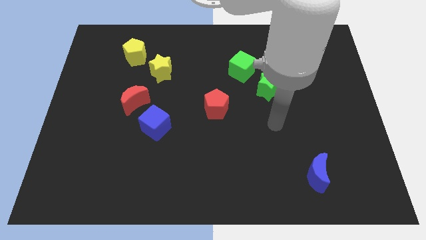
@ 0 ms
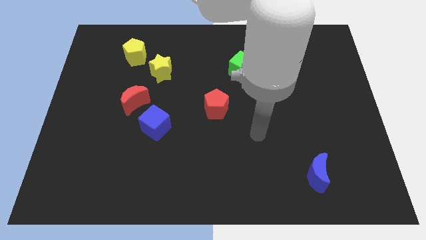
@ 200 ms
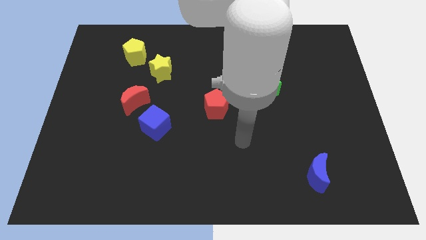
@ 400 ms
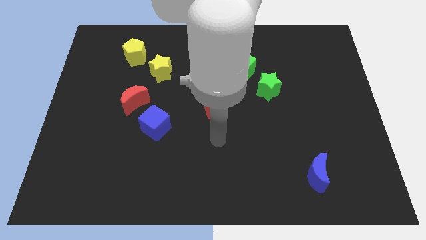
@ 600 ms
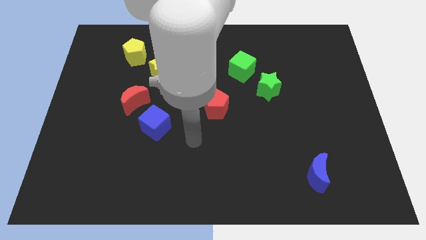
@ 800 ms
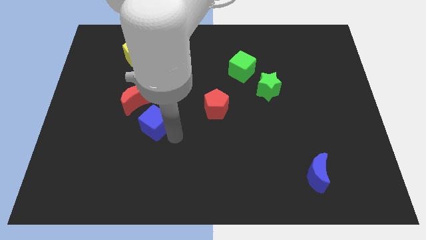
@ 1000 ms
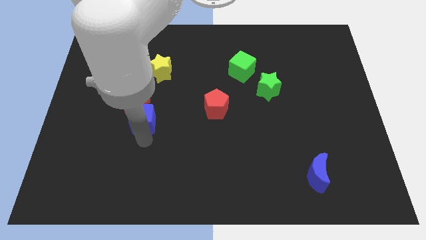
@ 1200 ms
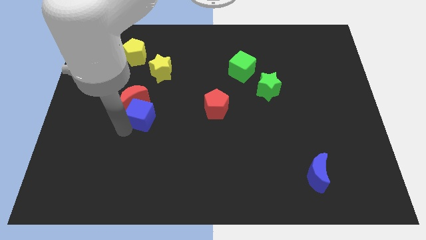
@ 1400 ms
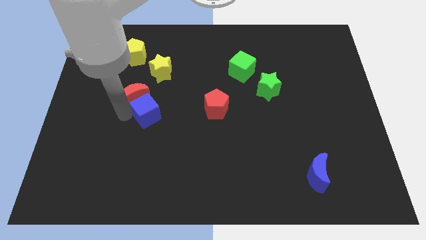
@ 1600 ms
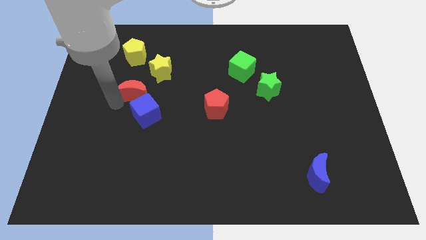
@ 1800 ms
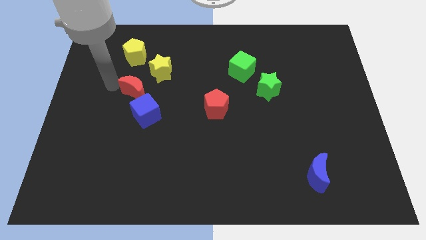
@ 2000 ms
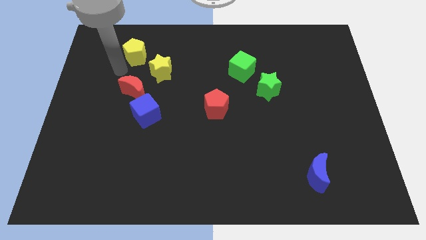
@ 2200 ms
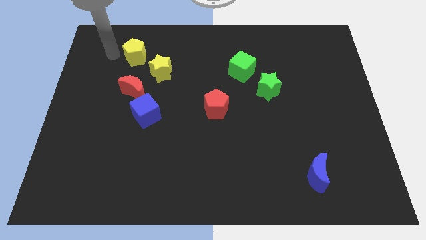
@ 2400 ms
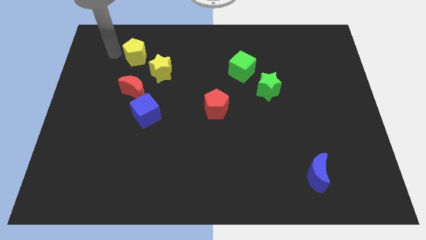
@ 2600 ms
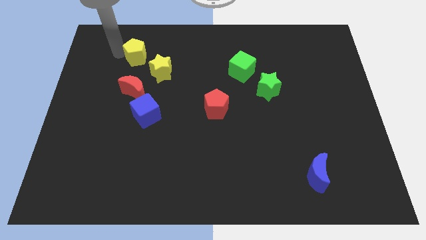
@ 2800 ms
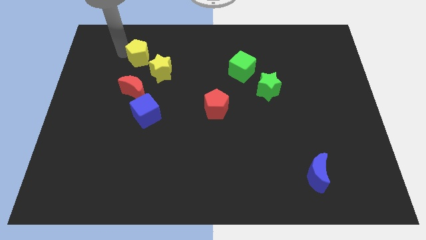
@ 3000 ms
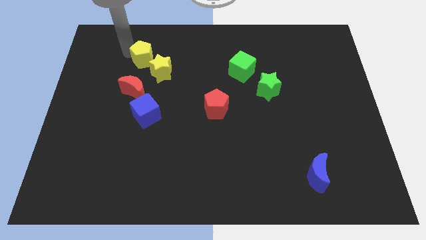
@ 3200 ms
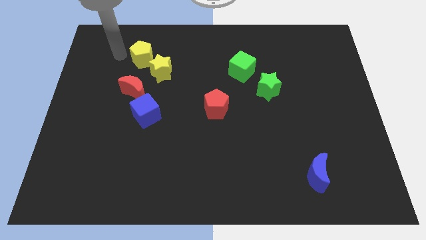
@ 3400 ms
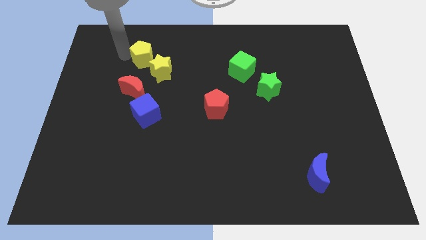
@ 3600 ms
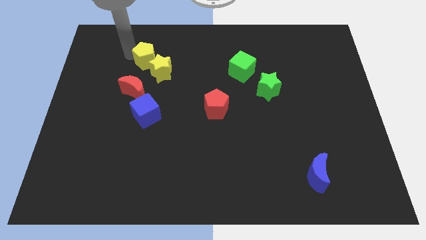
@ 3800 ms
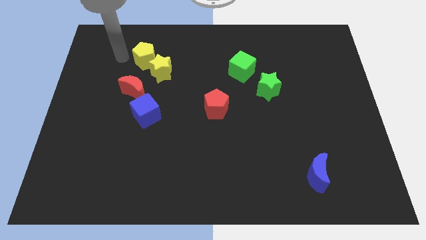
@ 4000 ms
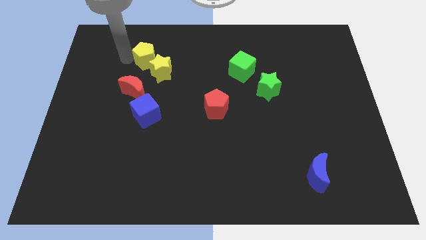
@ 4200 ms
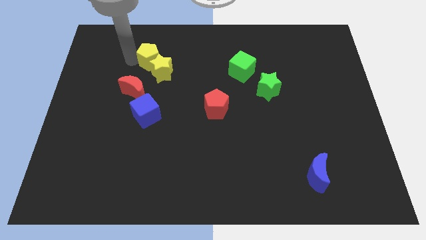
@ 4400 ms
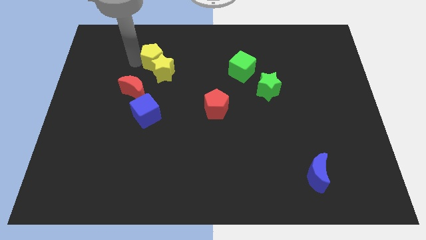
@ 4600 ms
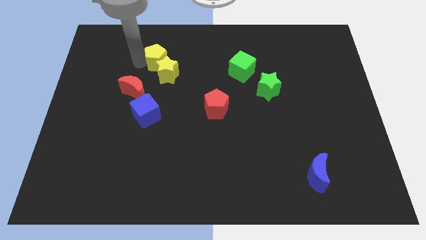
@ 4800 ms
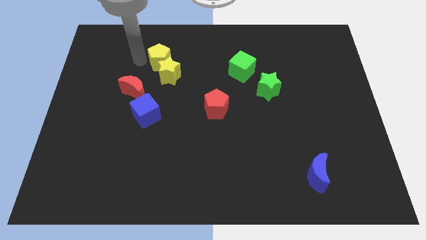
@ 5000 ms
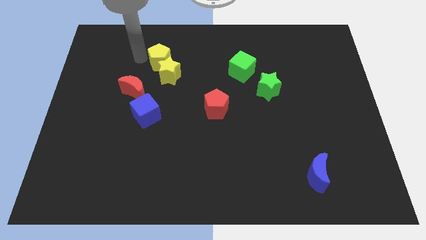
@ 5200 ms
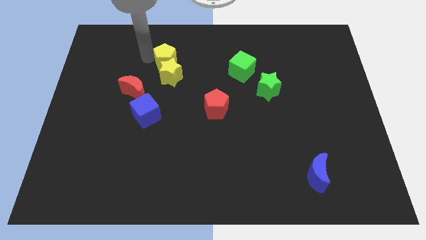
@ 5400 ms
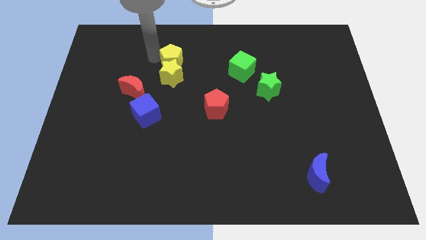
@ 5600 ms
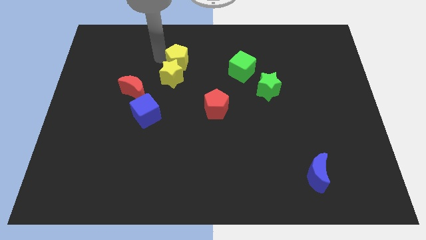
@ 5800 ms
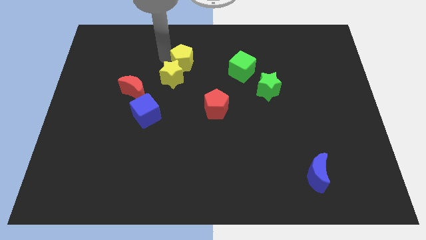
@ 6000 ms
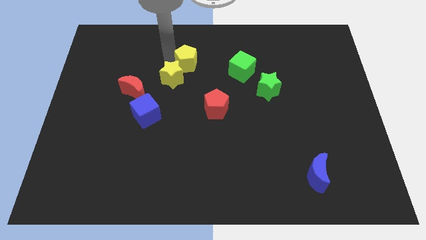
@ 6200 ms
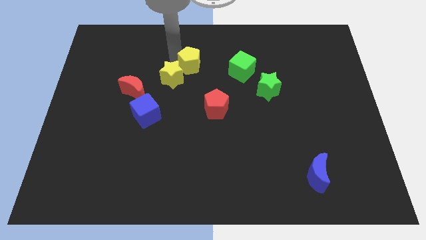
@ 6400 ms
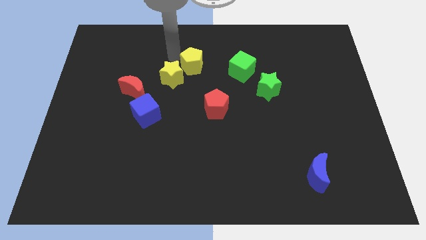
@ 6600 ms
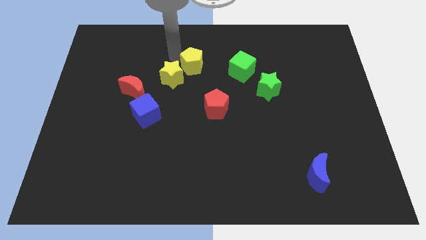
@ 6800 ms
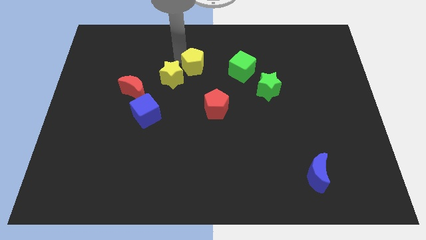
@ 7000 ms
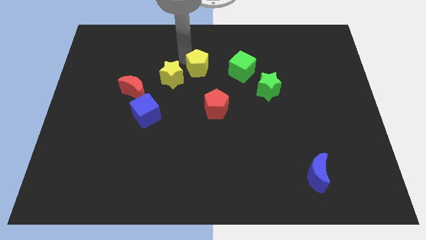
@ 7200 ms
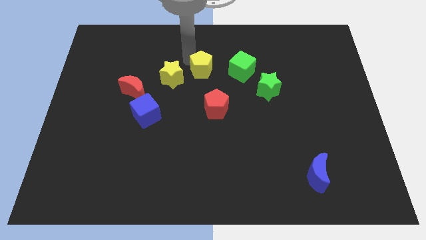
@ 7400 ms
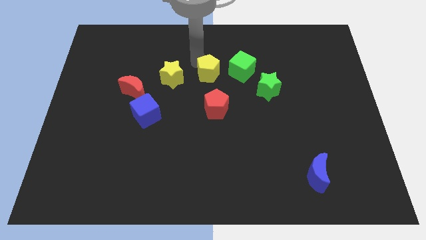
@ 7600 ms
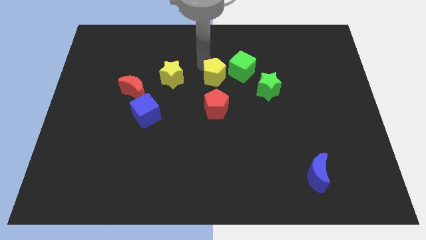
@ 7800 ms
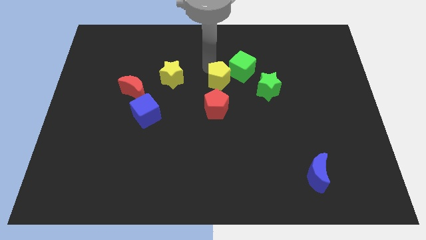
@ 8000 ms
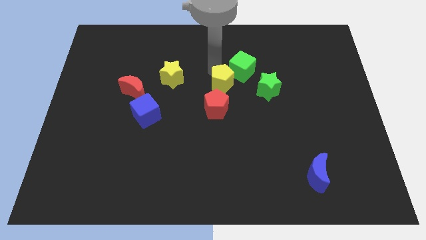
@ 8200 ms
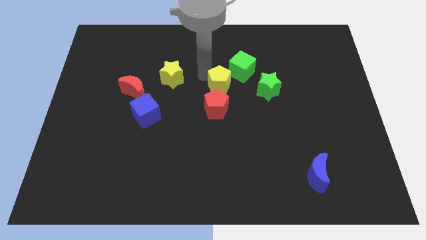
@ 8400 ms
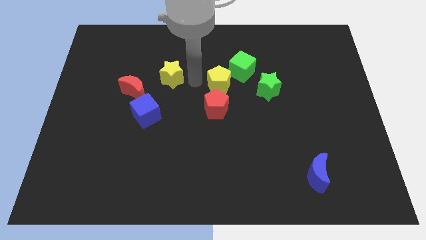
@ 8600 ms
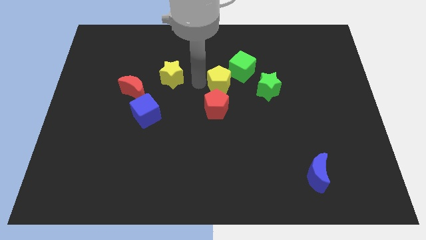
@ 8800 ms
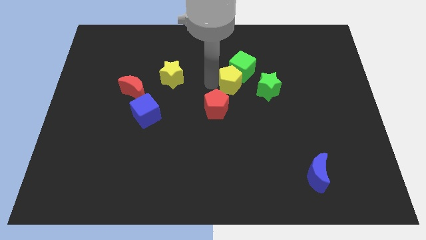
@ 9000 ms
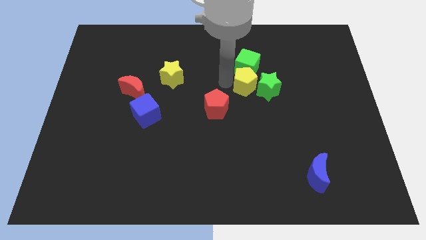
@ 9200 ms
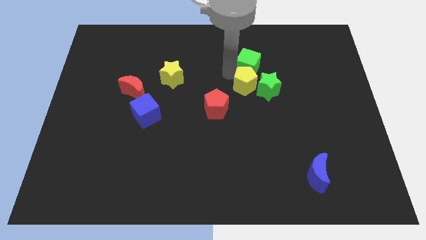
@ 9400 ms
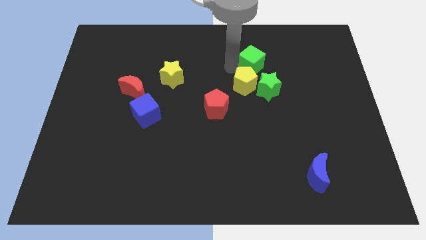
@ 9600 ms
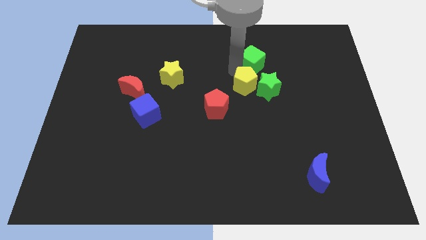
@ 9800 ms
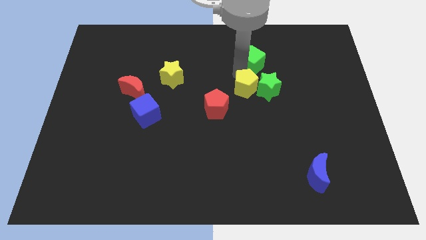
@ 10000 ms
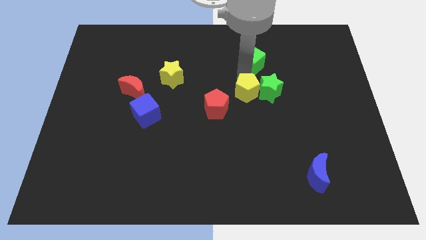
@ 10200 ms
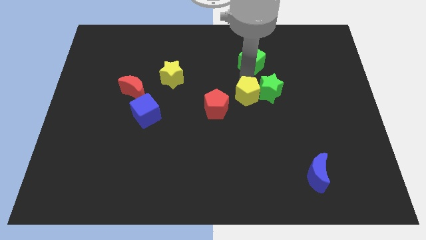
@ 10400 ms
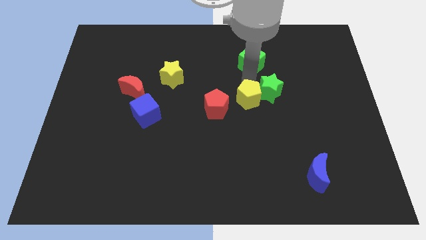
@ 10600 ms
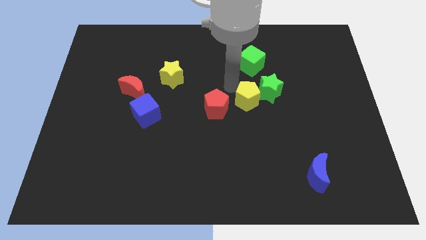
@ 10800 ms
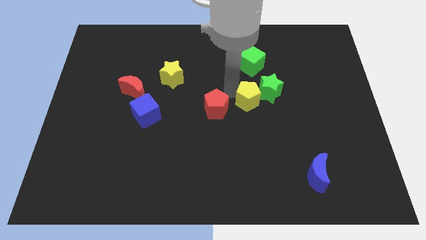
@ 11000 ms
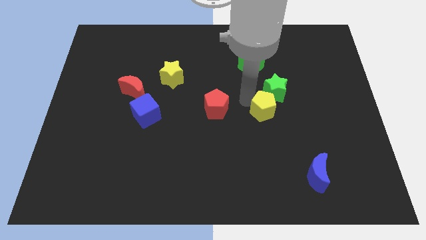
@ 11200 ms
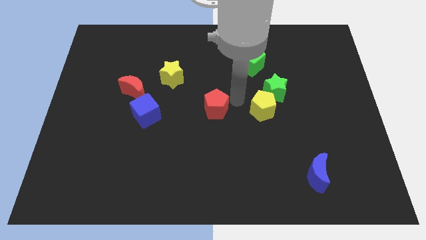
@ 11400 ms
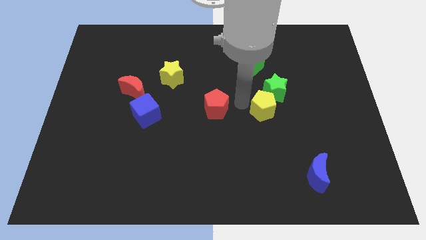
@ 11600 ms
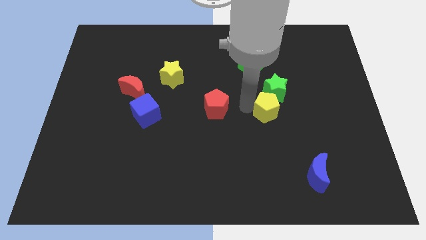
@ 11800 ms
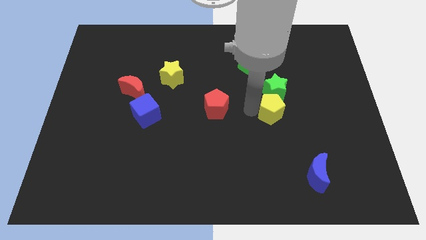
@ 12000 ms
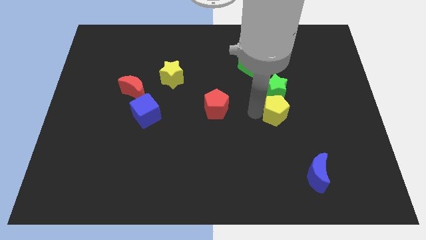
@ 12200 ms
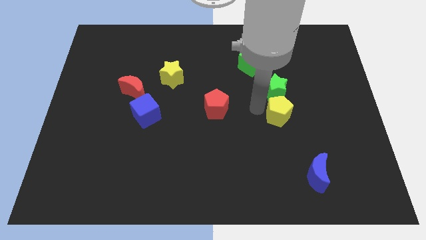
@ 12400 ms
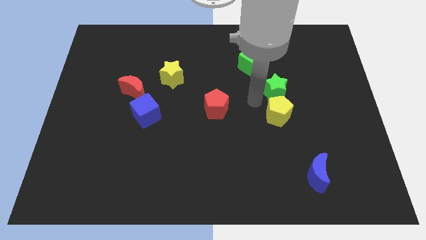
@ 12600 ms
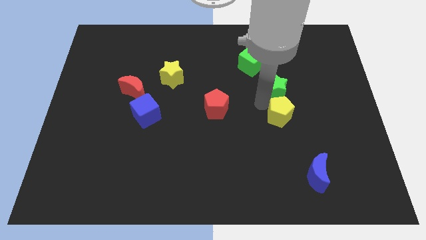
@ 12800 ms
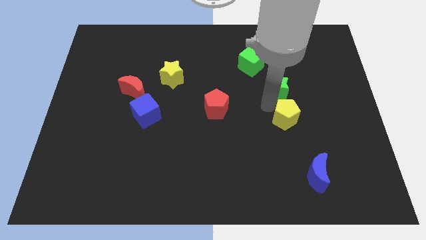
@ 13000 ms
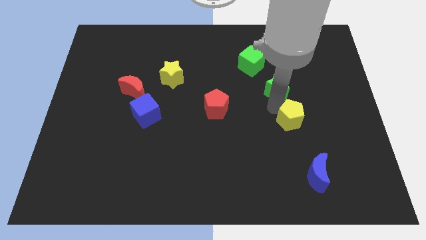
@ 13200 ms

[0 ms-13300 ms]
push the yellow pentagon to the top side of the blue moon
